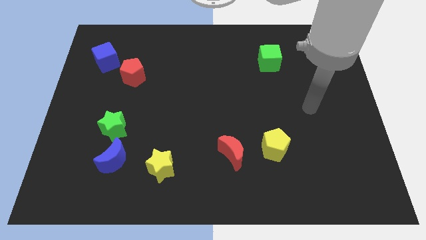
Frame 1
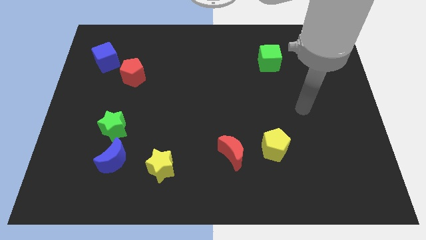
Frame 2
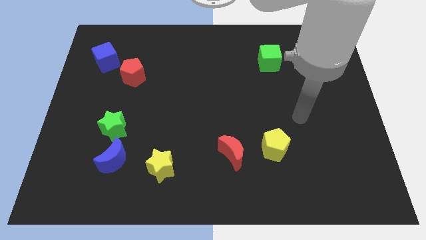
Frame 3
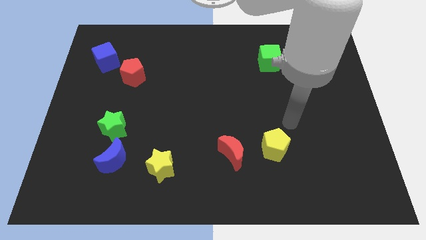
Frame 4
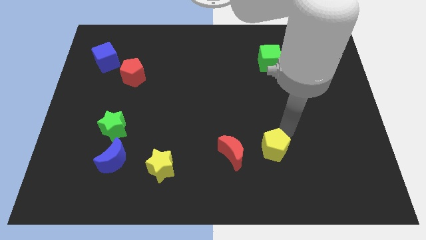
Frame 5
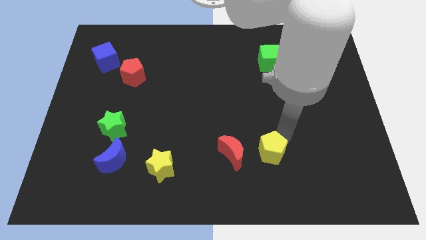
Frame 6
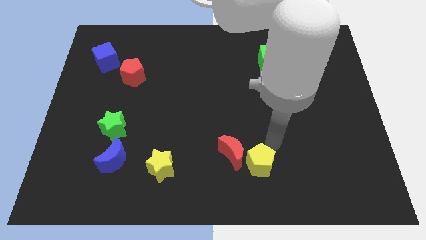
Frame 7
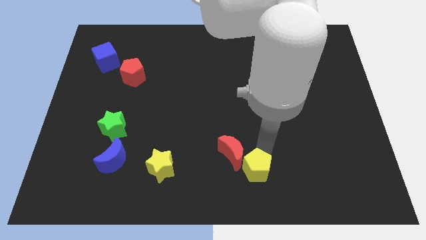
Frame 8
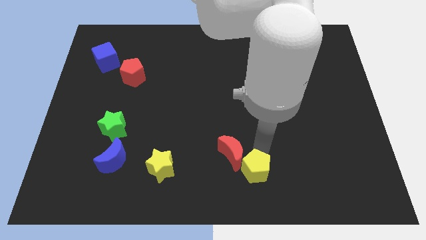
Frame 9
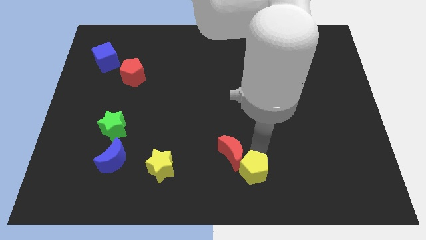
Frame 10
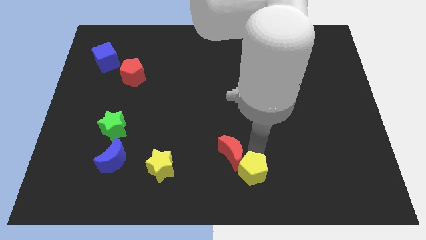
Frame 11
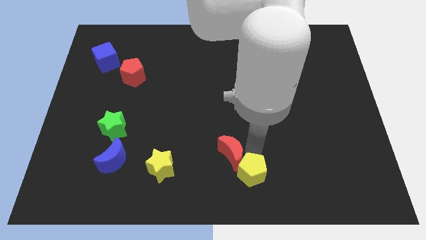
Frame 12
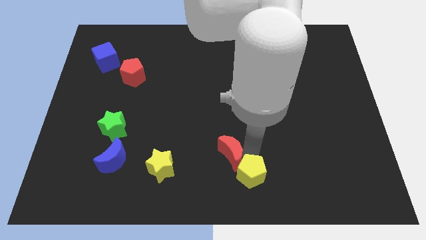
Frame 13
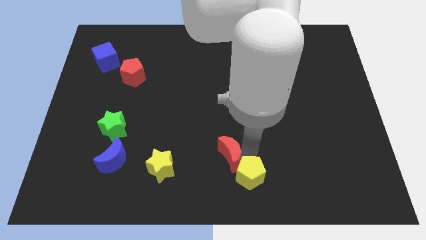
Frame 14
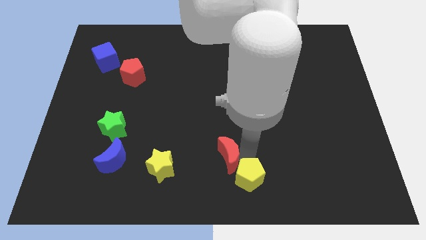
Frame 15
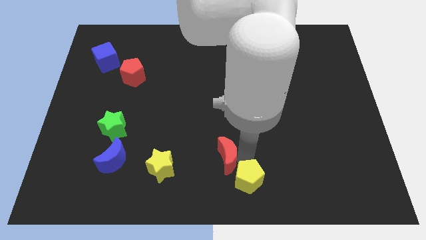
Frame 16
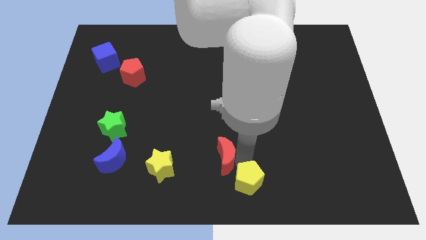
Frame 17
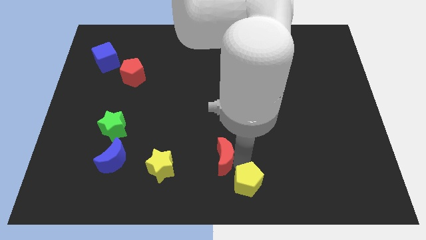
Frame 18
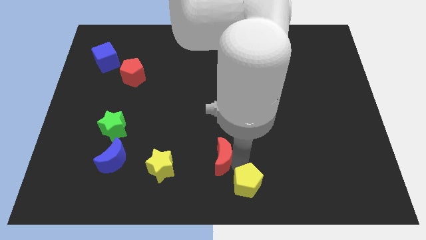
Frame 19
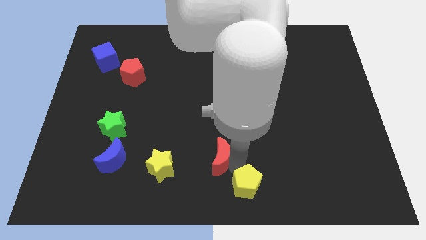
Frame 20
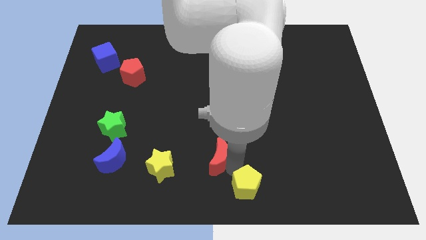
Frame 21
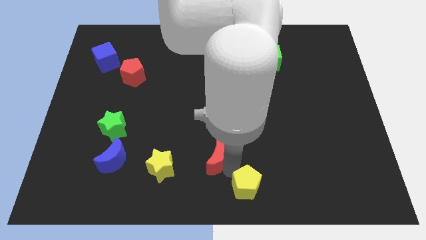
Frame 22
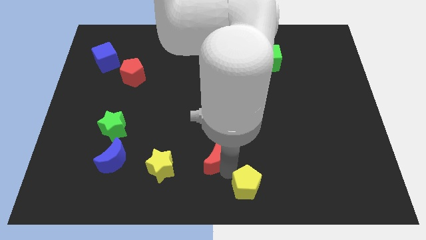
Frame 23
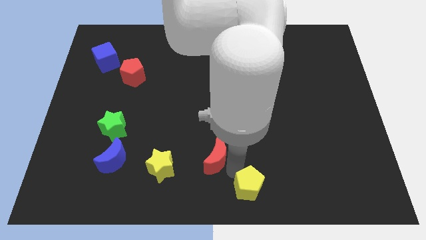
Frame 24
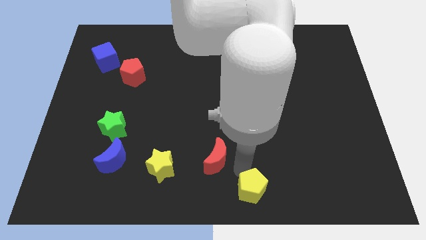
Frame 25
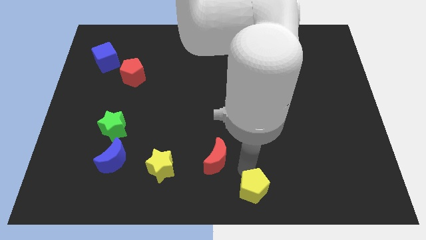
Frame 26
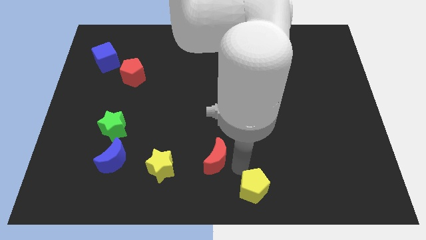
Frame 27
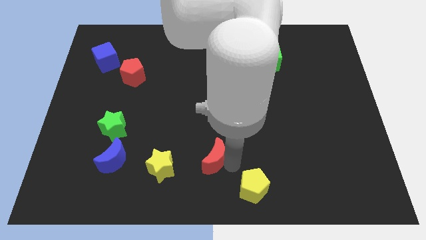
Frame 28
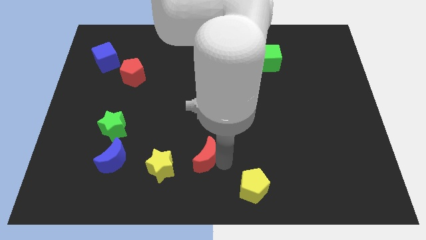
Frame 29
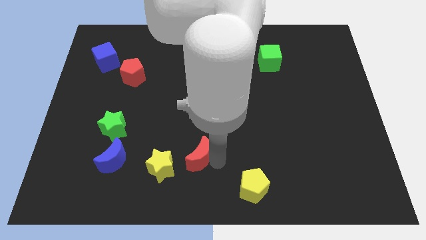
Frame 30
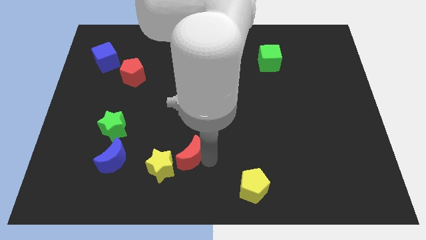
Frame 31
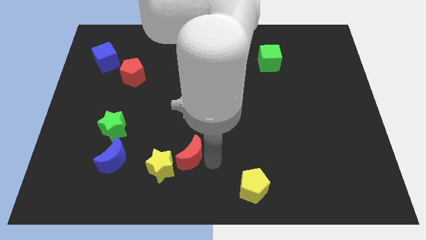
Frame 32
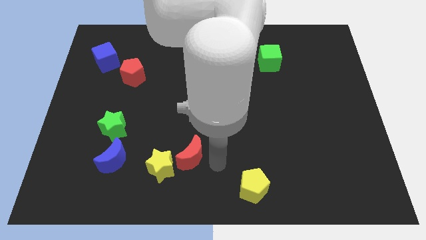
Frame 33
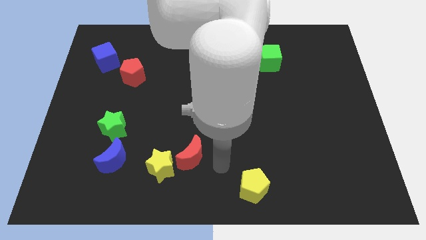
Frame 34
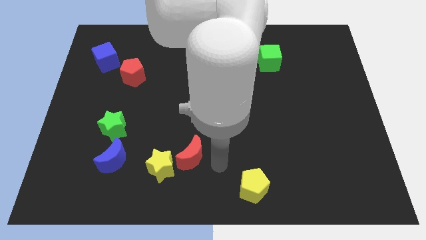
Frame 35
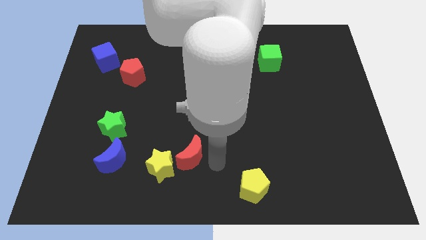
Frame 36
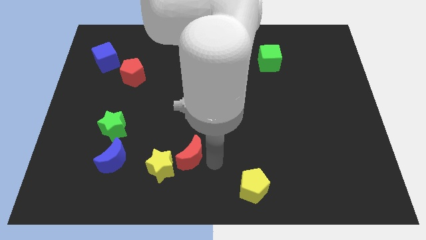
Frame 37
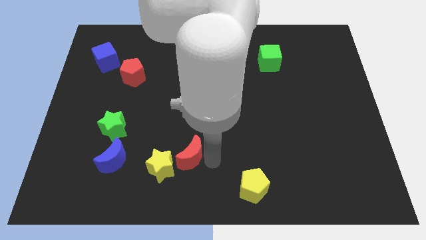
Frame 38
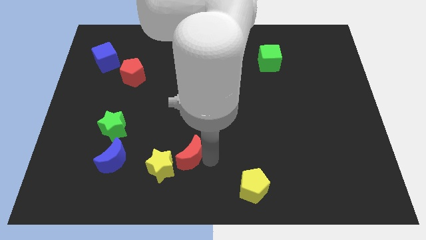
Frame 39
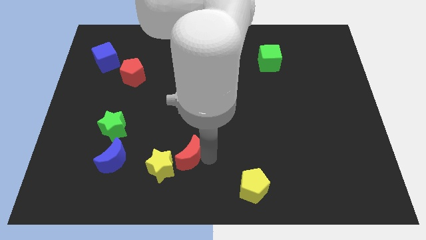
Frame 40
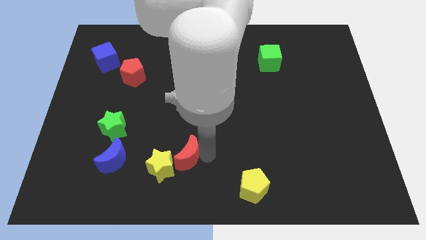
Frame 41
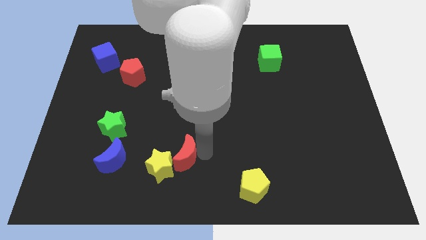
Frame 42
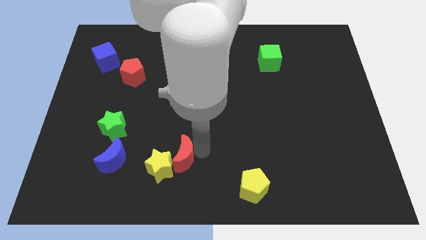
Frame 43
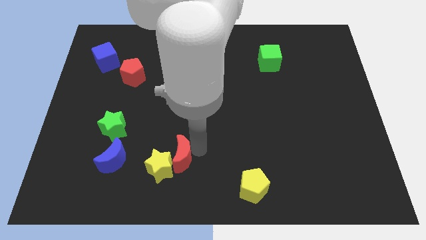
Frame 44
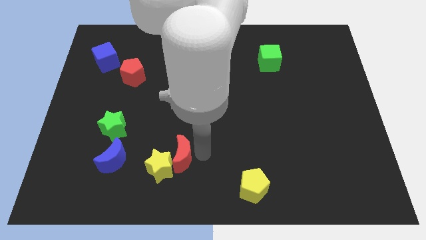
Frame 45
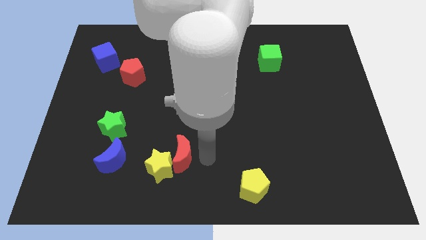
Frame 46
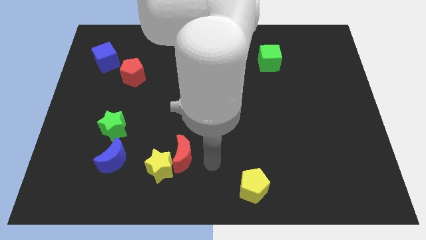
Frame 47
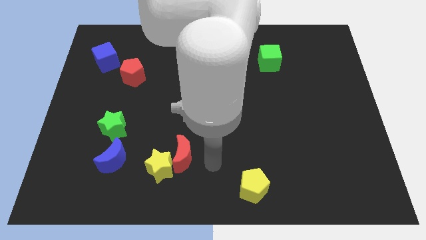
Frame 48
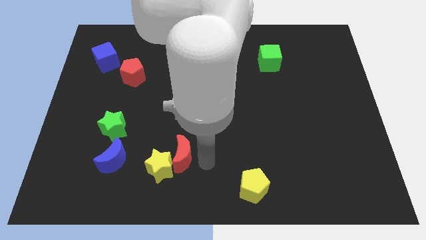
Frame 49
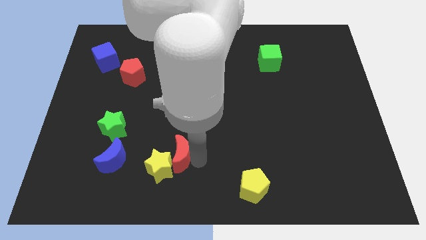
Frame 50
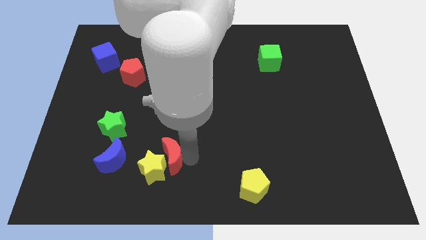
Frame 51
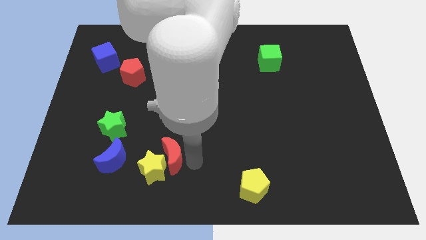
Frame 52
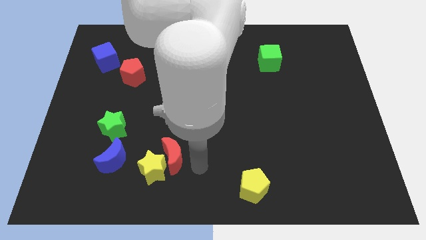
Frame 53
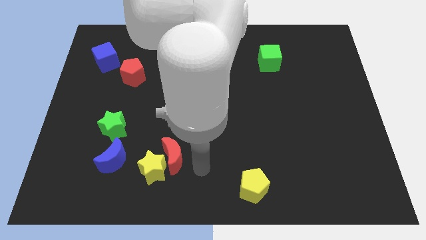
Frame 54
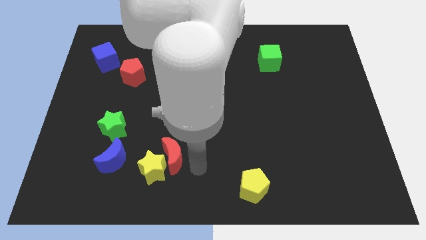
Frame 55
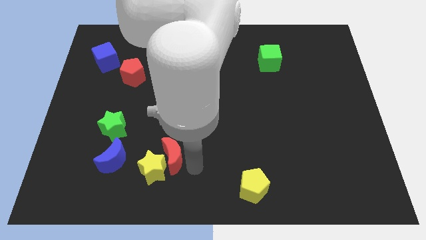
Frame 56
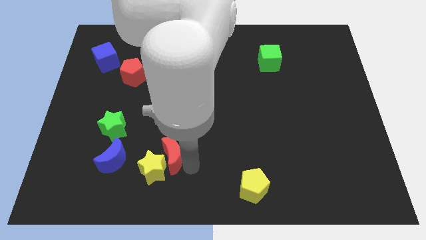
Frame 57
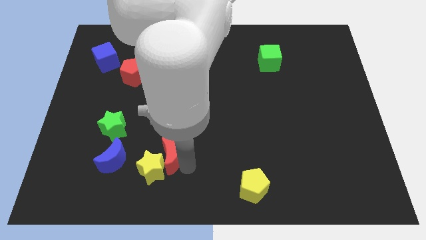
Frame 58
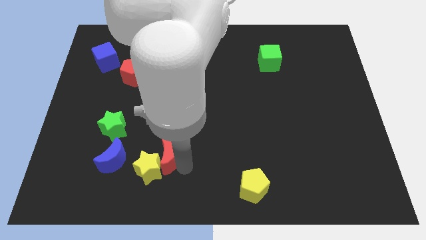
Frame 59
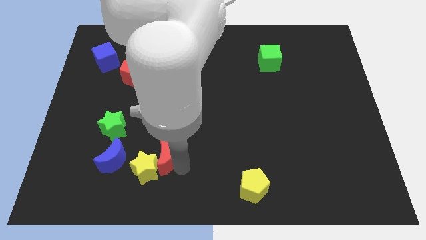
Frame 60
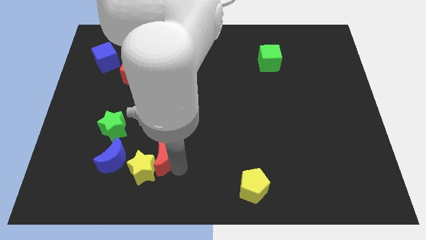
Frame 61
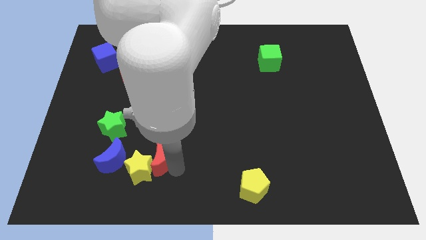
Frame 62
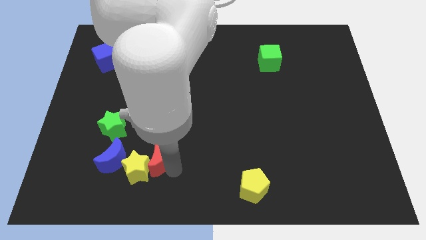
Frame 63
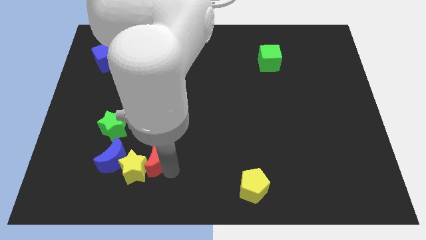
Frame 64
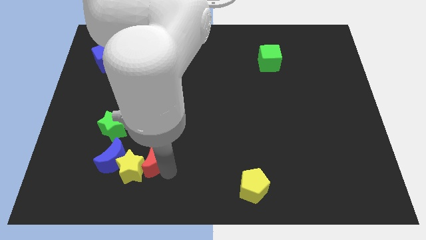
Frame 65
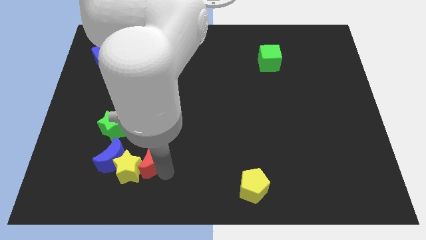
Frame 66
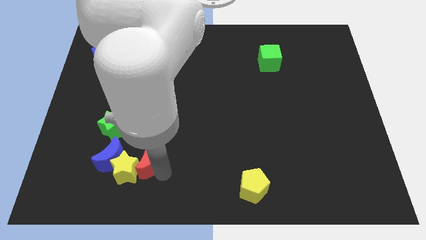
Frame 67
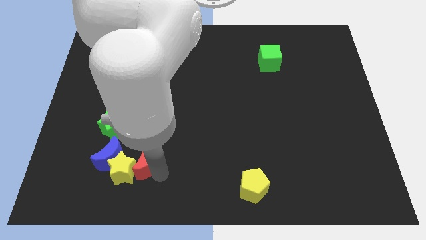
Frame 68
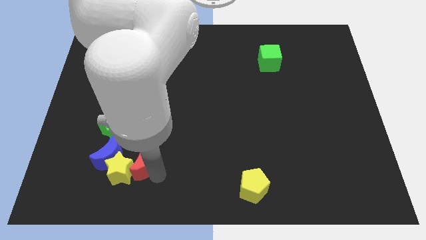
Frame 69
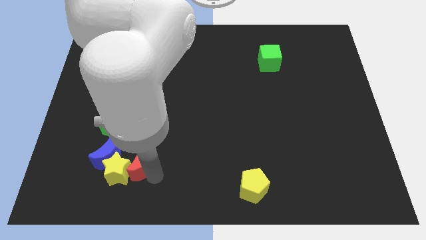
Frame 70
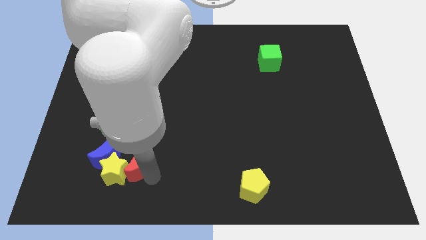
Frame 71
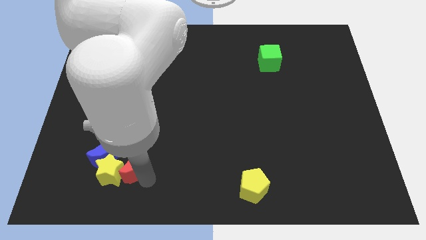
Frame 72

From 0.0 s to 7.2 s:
push the red moon left

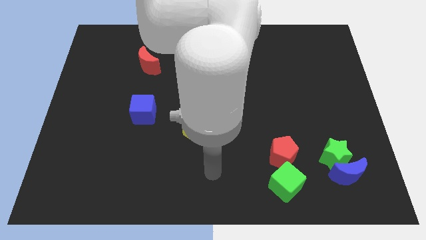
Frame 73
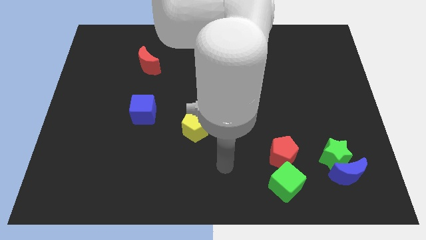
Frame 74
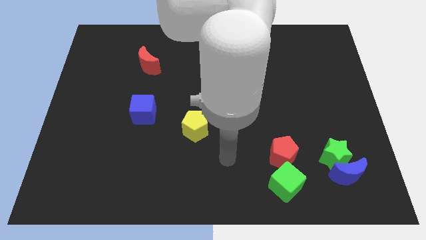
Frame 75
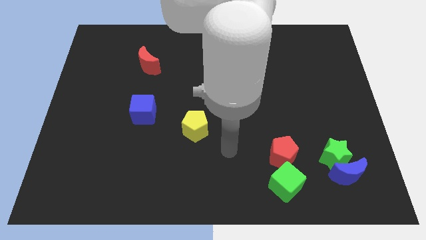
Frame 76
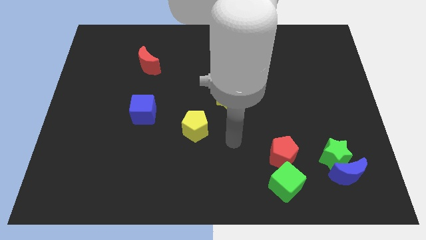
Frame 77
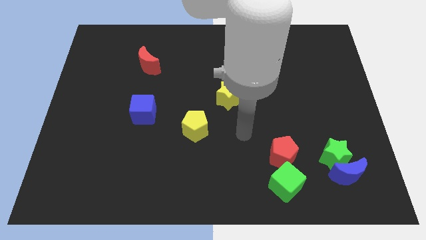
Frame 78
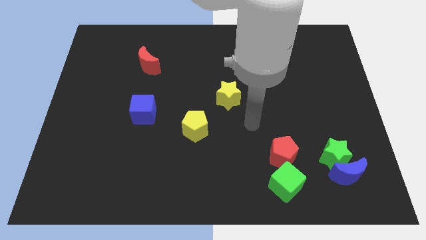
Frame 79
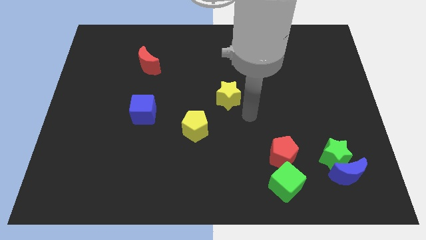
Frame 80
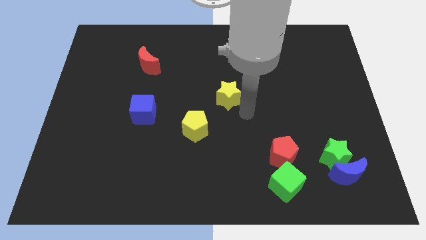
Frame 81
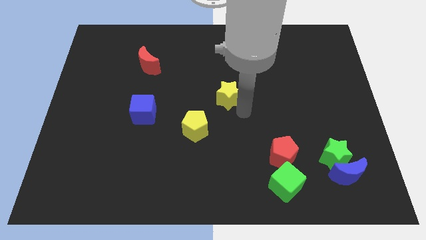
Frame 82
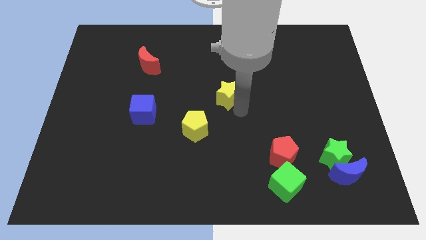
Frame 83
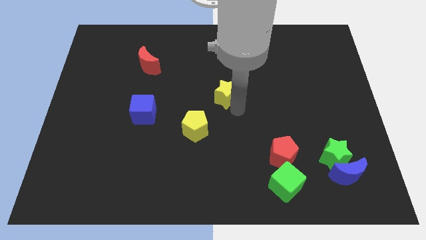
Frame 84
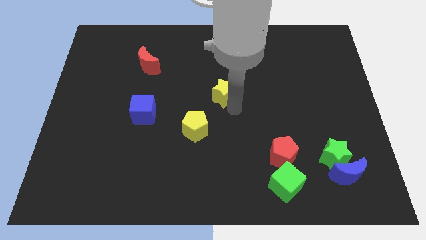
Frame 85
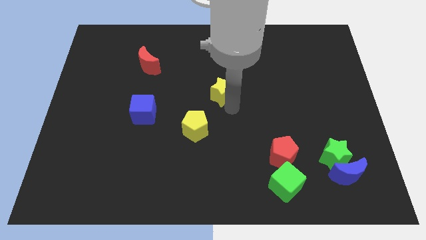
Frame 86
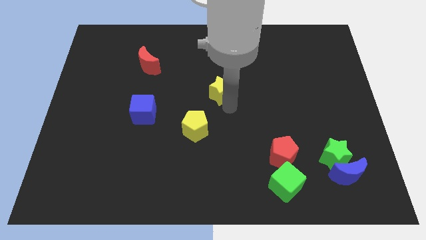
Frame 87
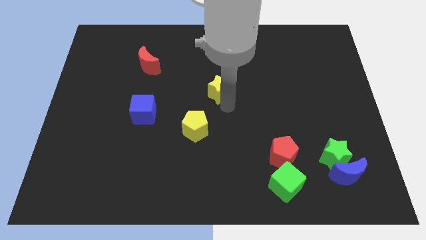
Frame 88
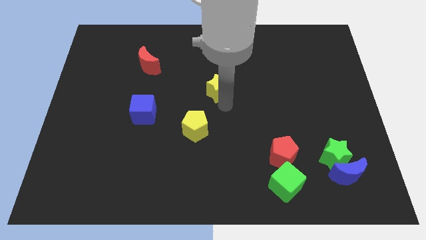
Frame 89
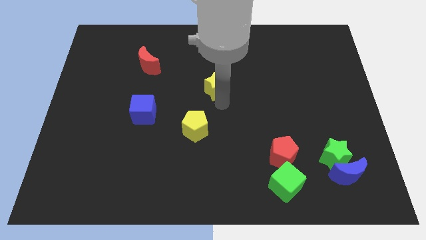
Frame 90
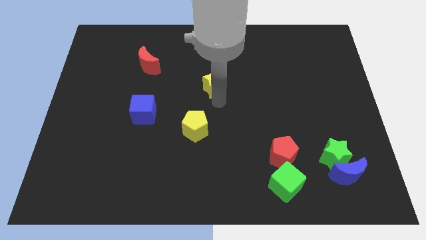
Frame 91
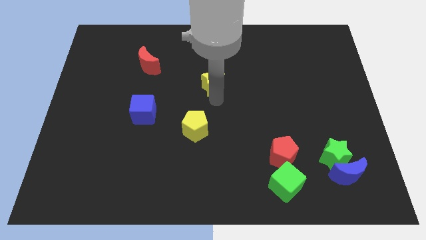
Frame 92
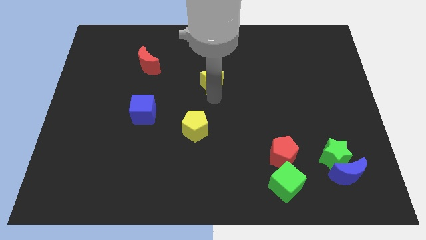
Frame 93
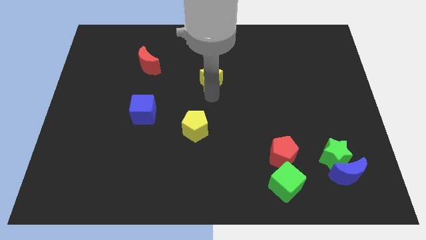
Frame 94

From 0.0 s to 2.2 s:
move the yellow star a little bit up and to the left diagonally
